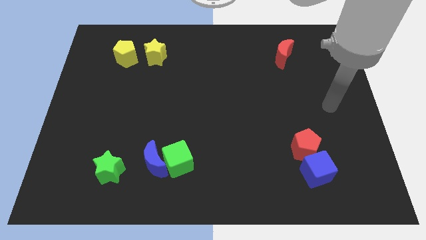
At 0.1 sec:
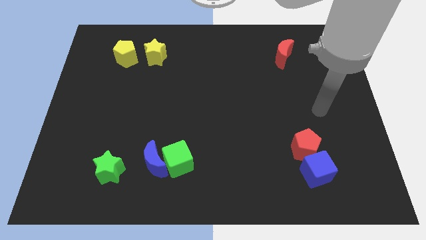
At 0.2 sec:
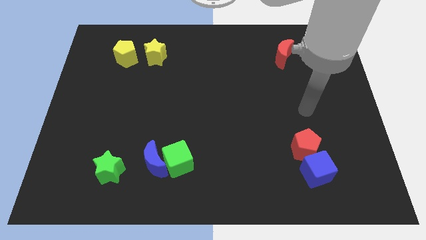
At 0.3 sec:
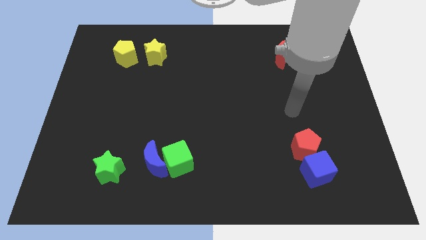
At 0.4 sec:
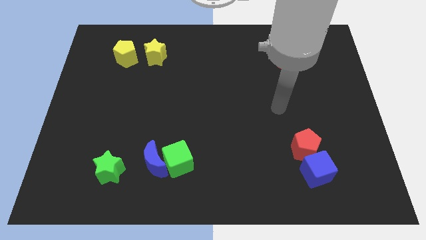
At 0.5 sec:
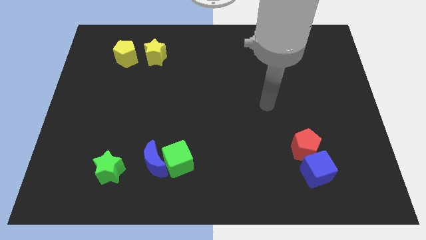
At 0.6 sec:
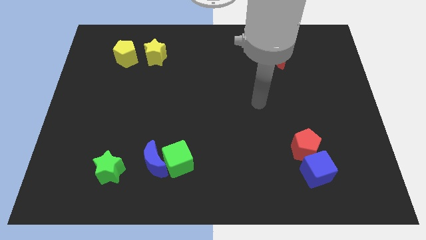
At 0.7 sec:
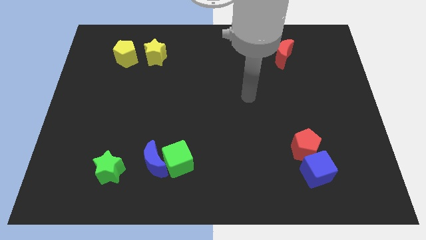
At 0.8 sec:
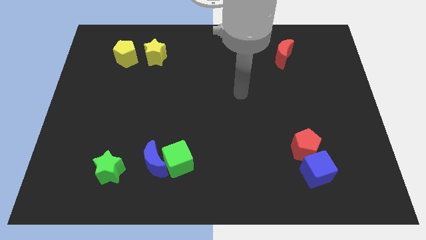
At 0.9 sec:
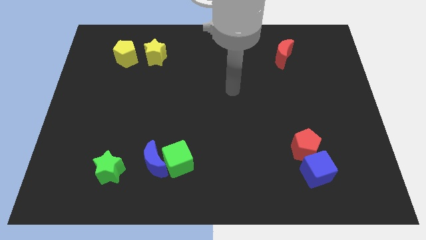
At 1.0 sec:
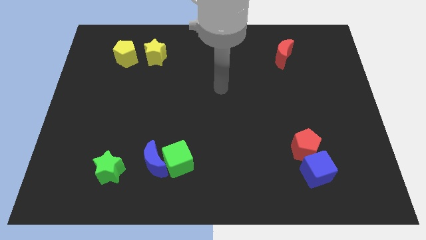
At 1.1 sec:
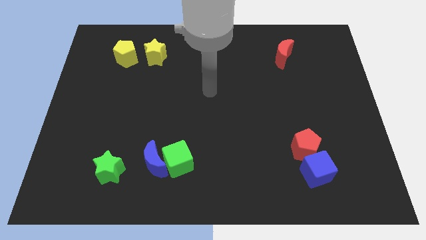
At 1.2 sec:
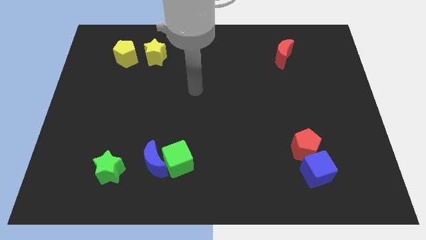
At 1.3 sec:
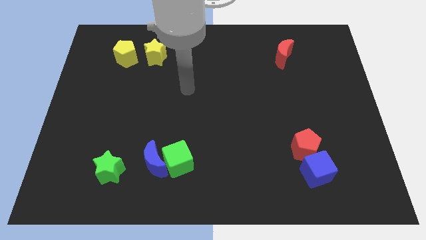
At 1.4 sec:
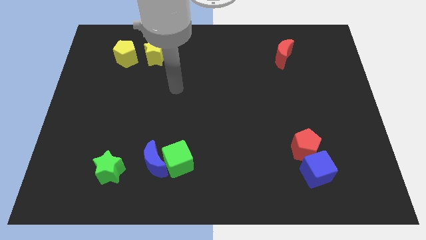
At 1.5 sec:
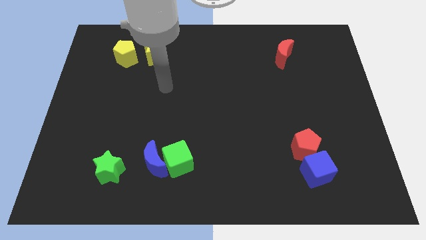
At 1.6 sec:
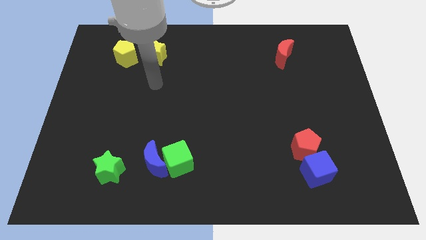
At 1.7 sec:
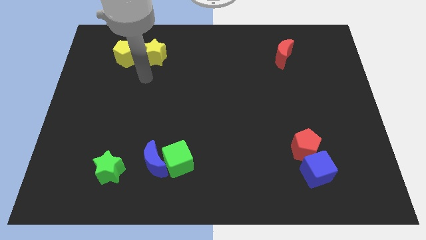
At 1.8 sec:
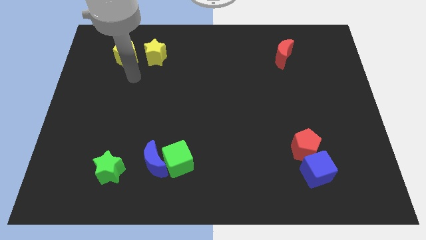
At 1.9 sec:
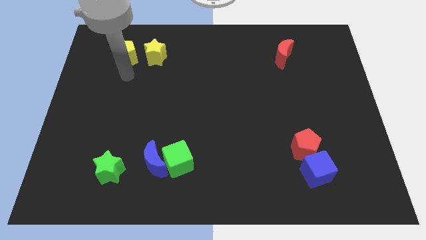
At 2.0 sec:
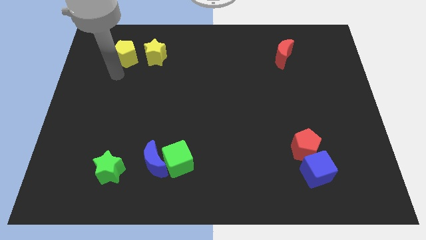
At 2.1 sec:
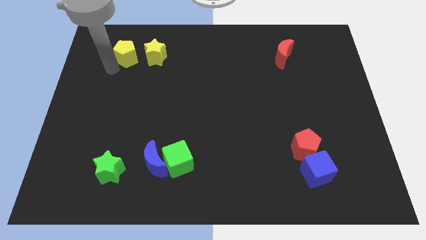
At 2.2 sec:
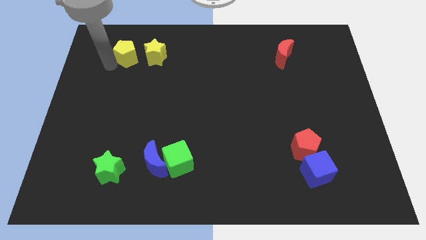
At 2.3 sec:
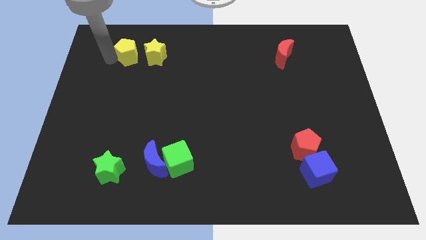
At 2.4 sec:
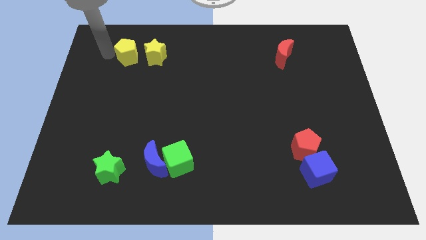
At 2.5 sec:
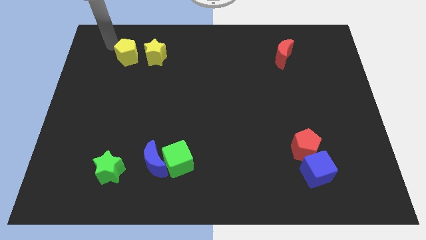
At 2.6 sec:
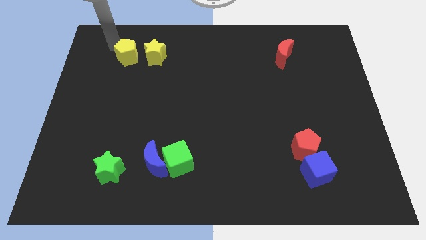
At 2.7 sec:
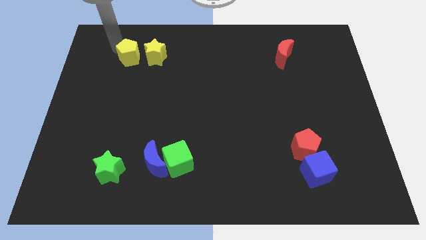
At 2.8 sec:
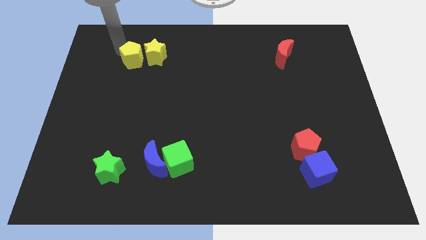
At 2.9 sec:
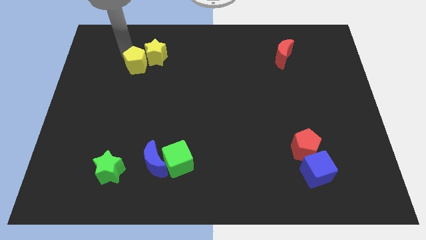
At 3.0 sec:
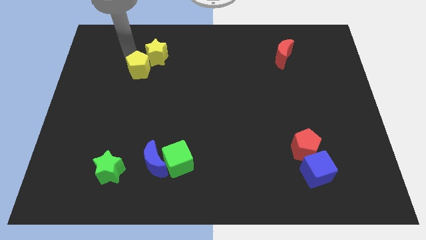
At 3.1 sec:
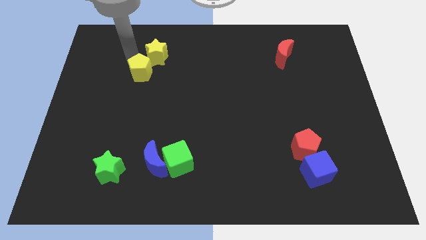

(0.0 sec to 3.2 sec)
move the yellow pentagon down and right diagonally slightly

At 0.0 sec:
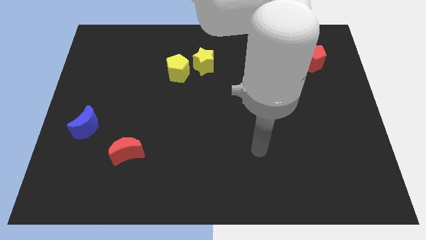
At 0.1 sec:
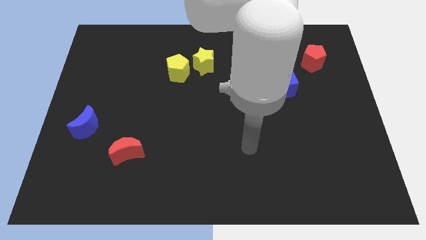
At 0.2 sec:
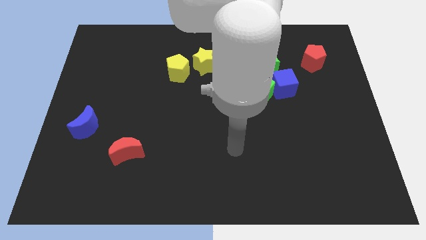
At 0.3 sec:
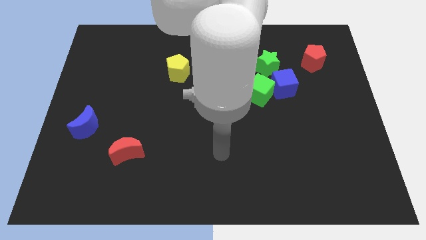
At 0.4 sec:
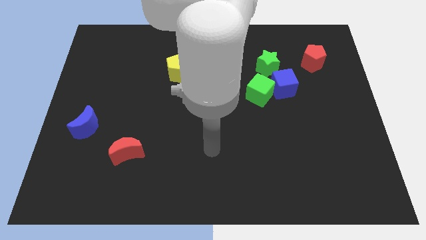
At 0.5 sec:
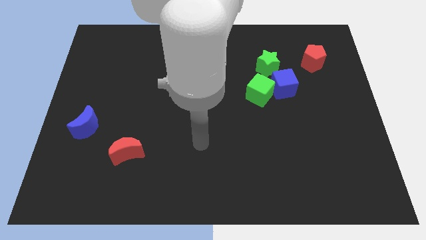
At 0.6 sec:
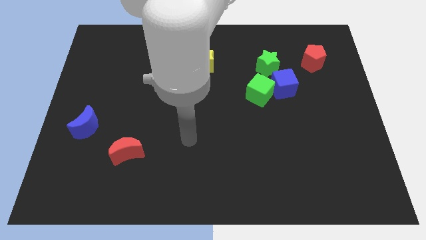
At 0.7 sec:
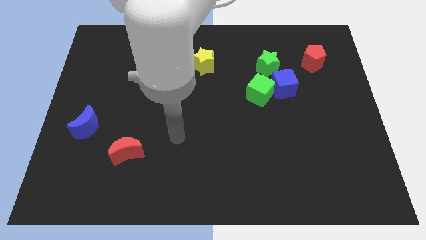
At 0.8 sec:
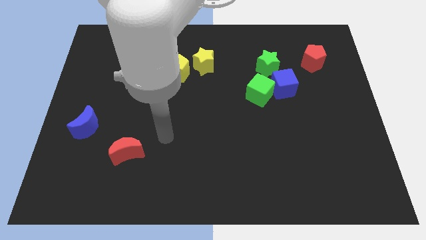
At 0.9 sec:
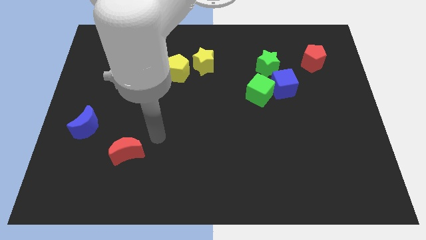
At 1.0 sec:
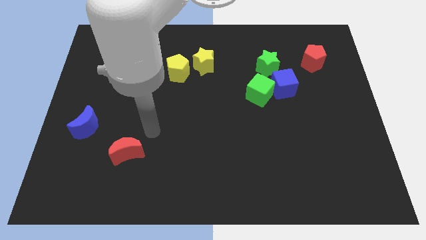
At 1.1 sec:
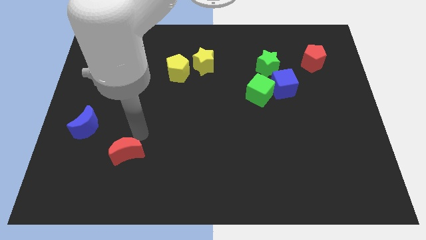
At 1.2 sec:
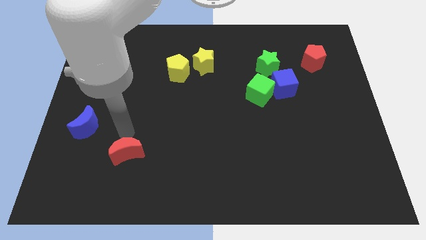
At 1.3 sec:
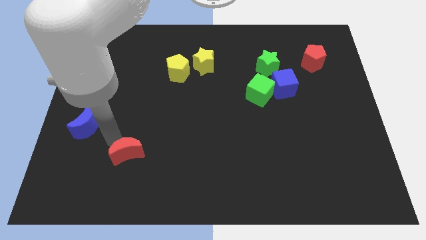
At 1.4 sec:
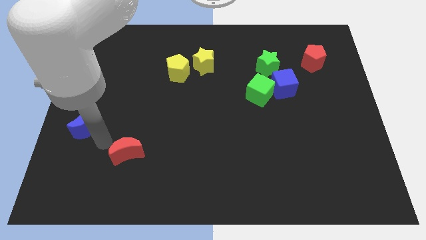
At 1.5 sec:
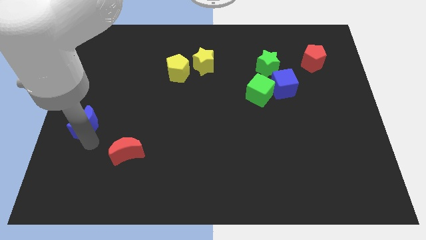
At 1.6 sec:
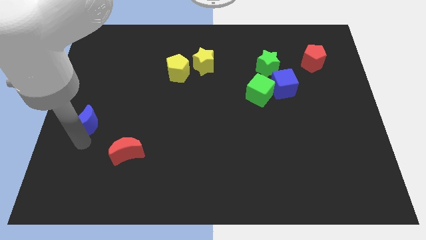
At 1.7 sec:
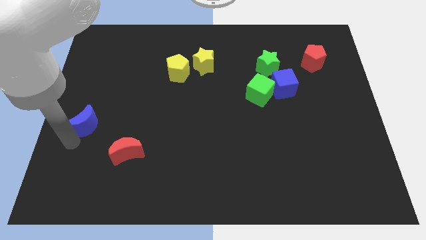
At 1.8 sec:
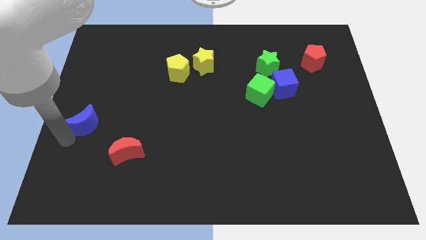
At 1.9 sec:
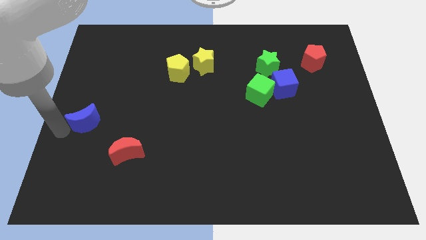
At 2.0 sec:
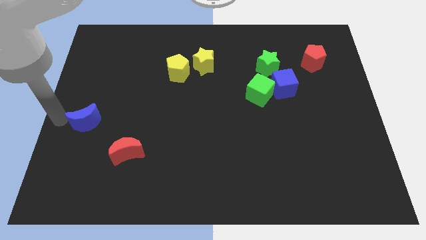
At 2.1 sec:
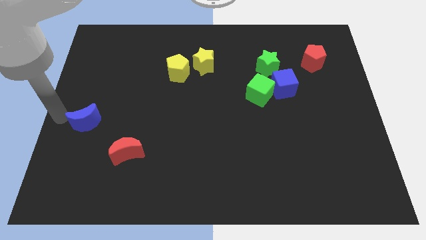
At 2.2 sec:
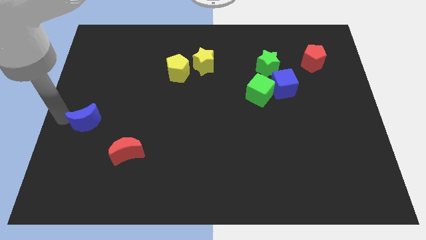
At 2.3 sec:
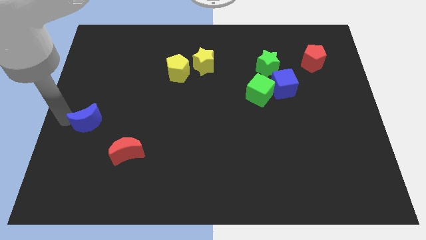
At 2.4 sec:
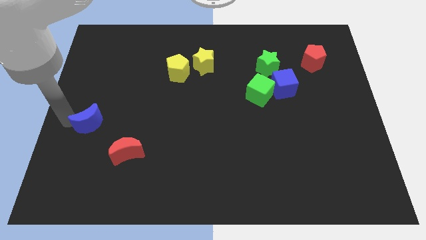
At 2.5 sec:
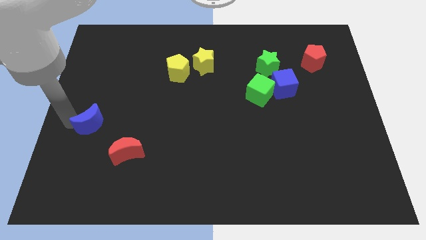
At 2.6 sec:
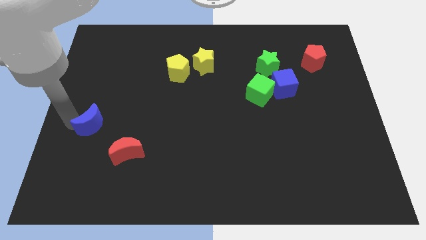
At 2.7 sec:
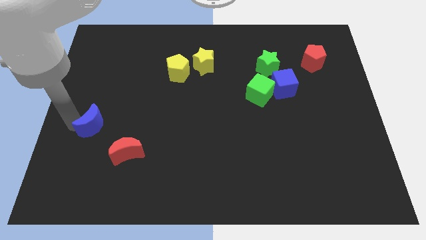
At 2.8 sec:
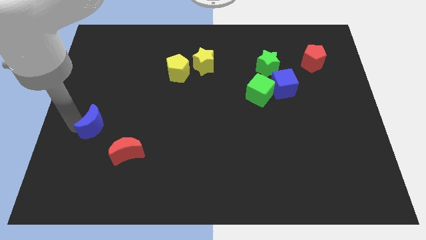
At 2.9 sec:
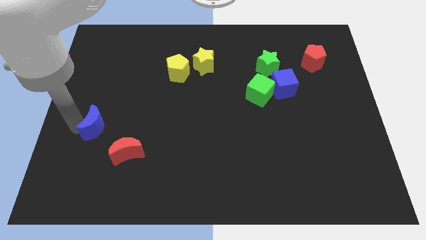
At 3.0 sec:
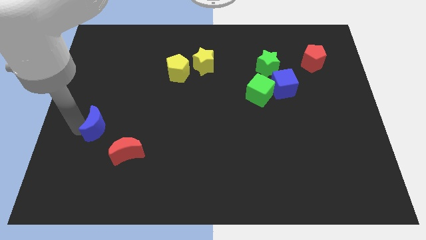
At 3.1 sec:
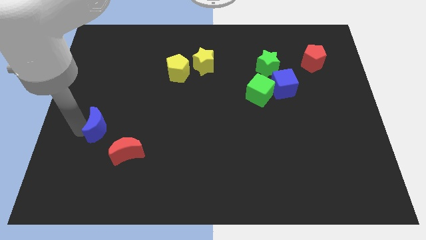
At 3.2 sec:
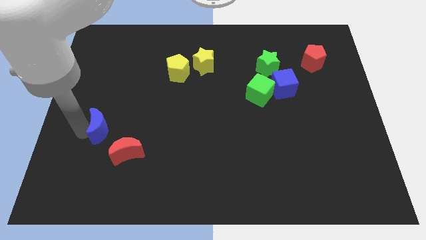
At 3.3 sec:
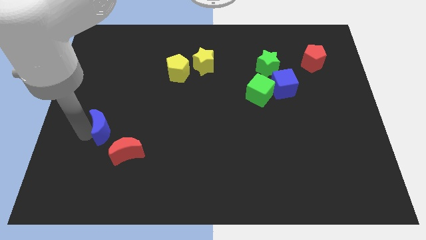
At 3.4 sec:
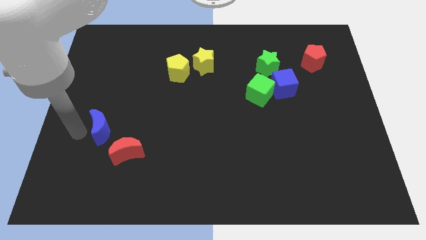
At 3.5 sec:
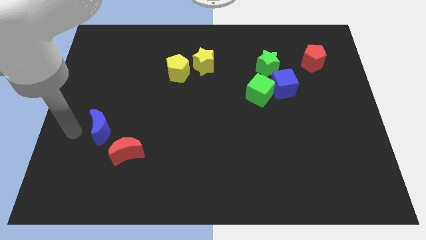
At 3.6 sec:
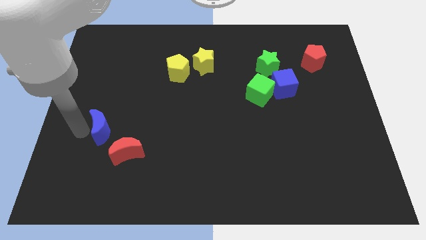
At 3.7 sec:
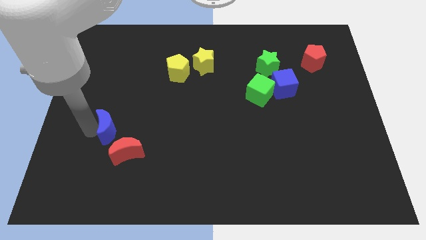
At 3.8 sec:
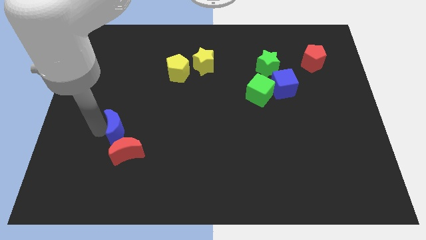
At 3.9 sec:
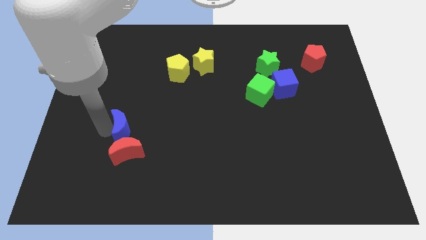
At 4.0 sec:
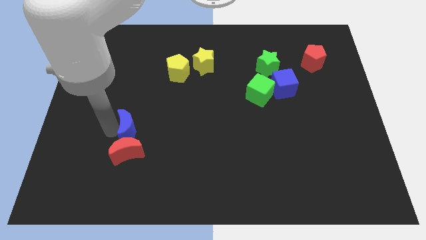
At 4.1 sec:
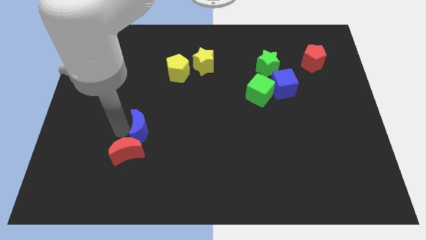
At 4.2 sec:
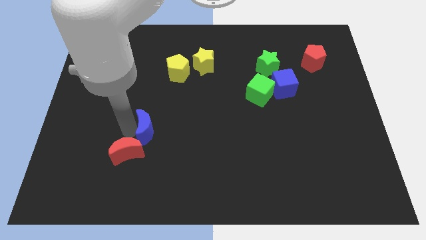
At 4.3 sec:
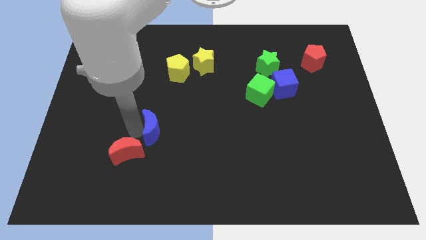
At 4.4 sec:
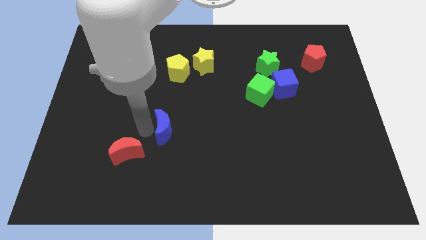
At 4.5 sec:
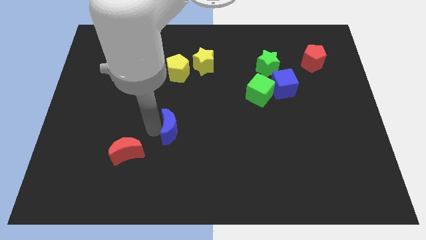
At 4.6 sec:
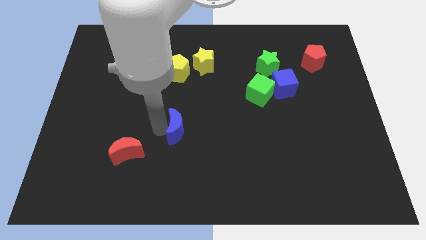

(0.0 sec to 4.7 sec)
push the blue moon right

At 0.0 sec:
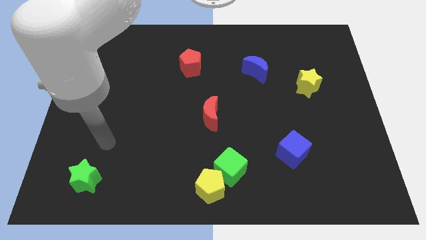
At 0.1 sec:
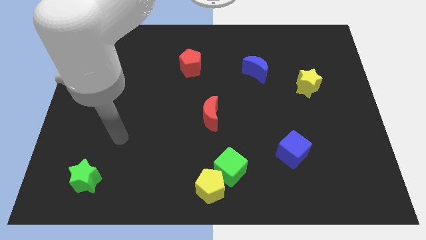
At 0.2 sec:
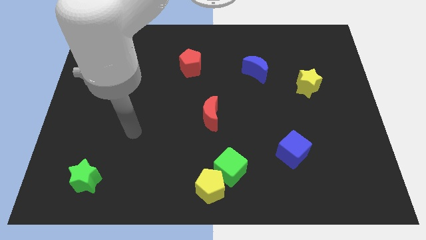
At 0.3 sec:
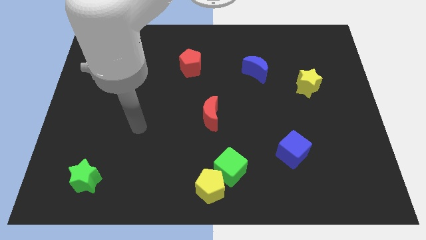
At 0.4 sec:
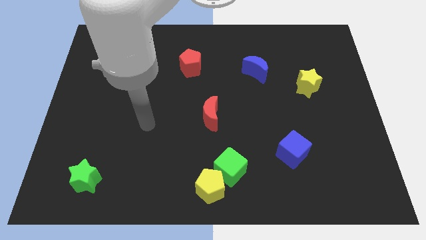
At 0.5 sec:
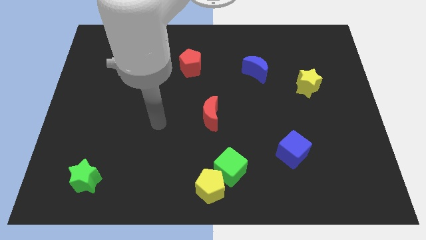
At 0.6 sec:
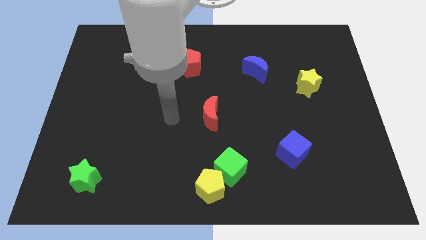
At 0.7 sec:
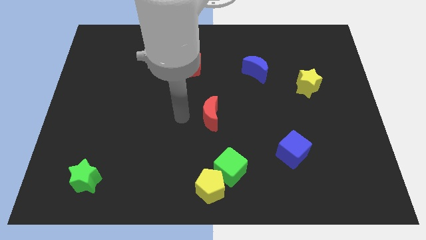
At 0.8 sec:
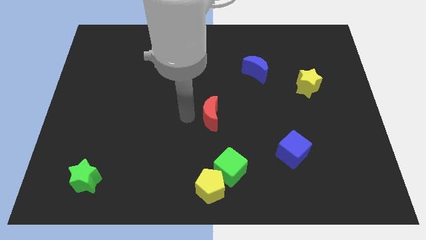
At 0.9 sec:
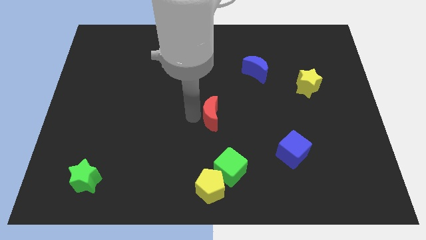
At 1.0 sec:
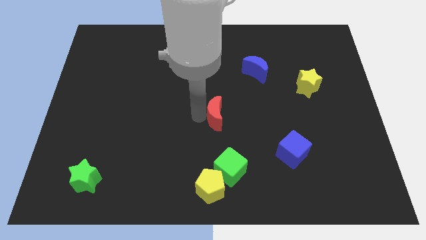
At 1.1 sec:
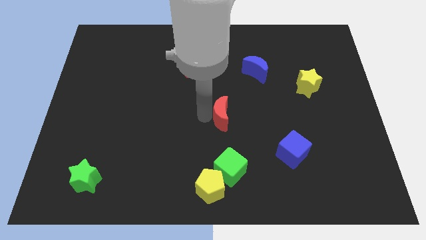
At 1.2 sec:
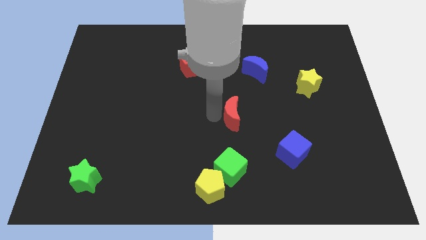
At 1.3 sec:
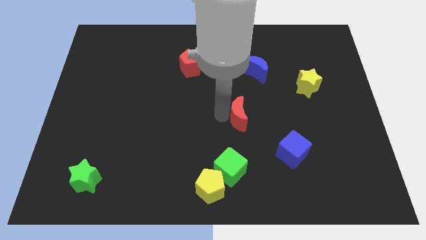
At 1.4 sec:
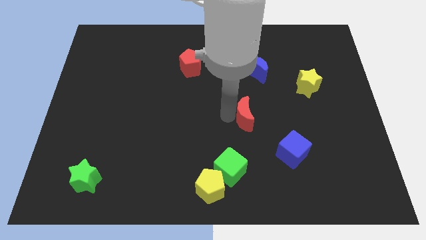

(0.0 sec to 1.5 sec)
move the red moon a little to the right
